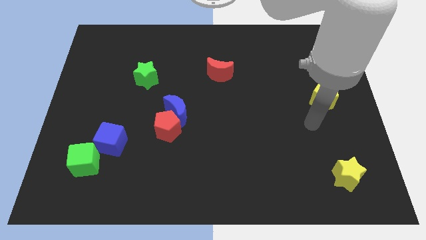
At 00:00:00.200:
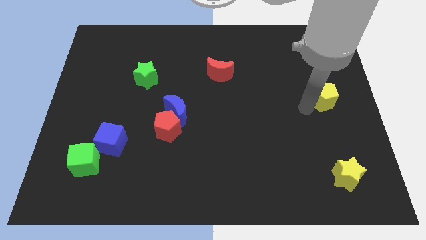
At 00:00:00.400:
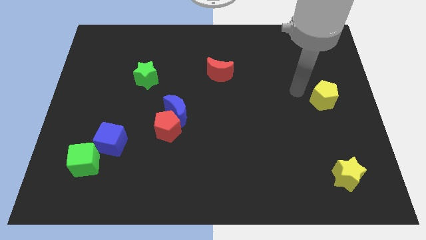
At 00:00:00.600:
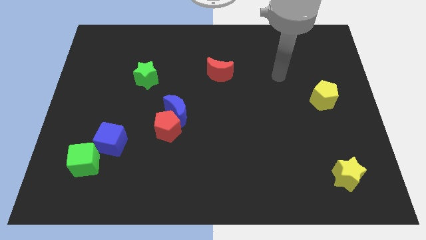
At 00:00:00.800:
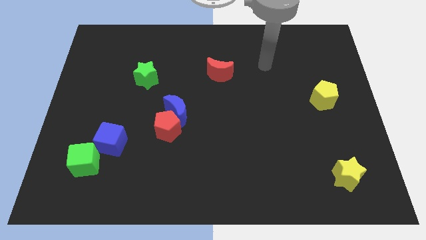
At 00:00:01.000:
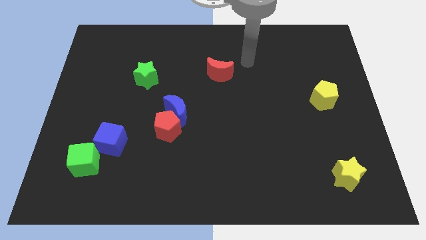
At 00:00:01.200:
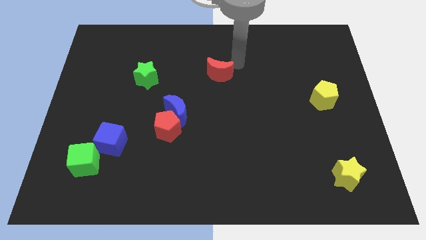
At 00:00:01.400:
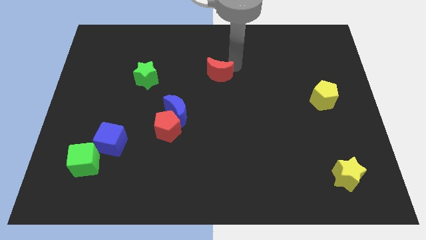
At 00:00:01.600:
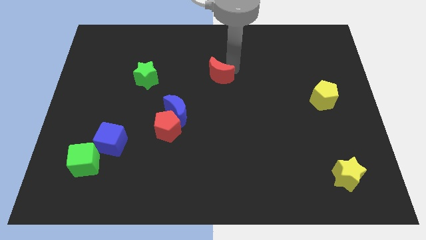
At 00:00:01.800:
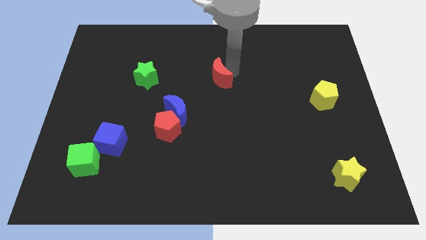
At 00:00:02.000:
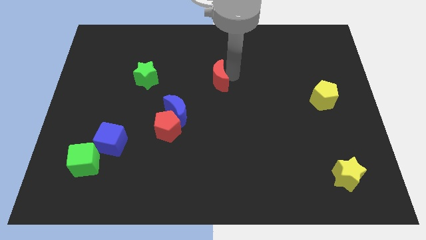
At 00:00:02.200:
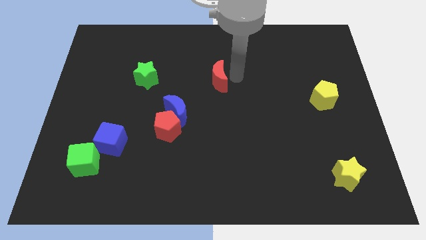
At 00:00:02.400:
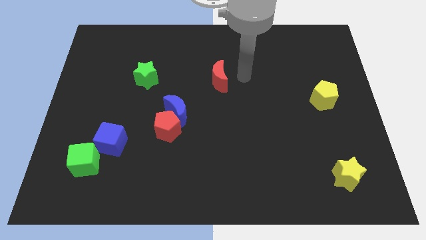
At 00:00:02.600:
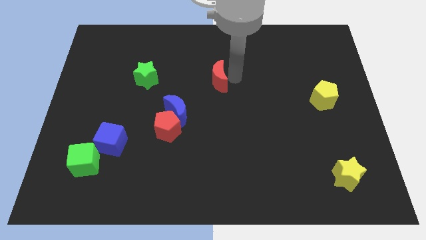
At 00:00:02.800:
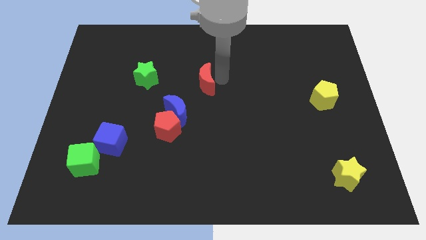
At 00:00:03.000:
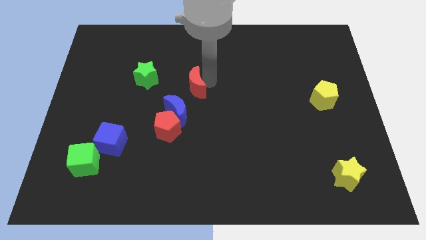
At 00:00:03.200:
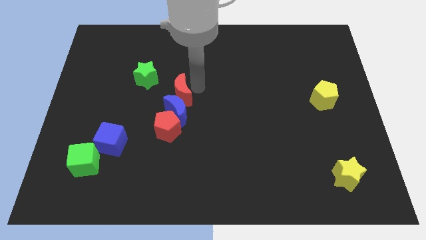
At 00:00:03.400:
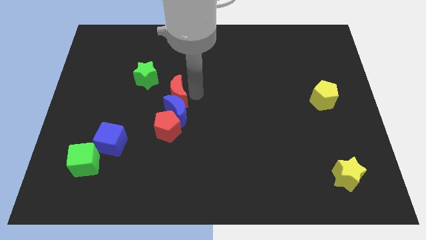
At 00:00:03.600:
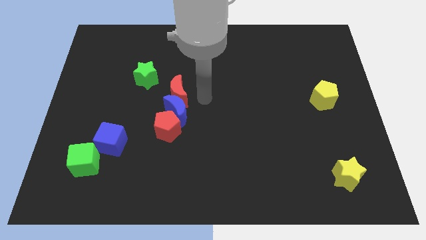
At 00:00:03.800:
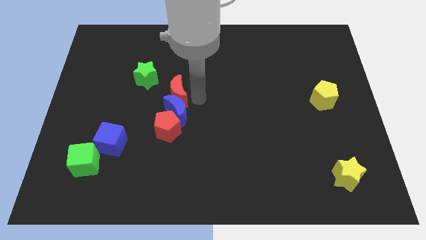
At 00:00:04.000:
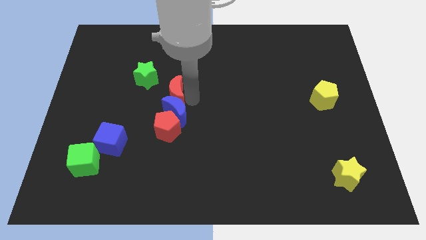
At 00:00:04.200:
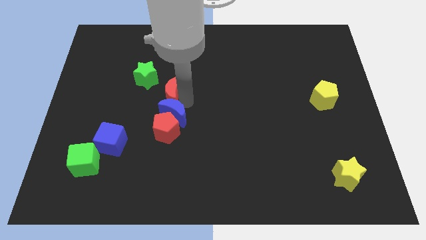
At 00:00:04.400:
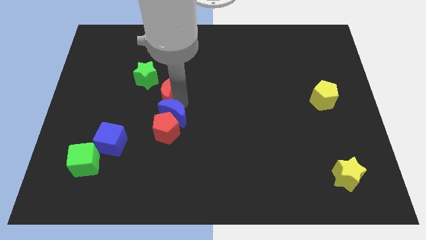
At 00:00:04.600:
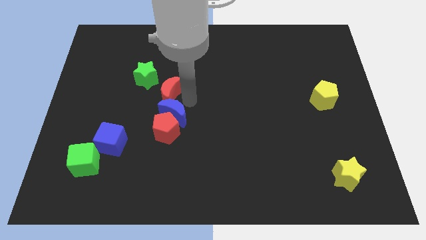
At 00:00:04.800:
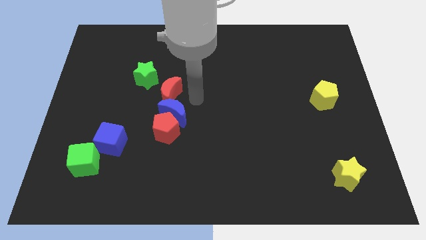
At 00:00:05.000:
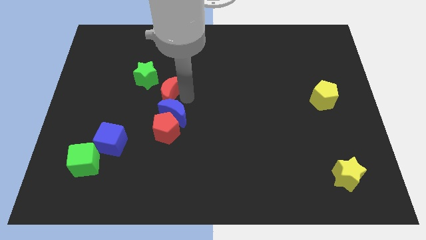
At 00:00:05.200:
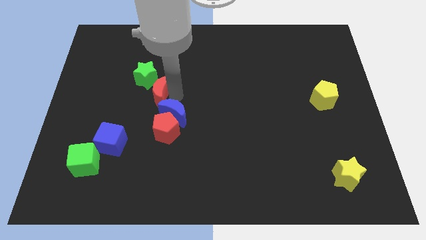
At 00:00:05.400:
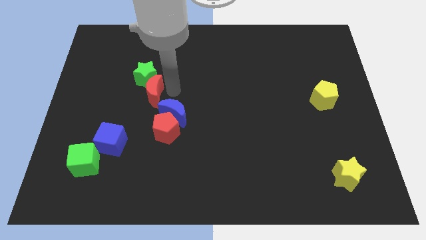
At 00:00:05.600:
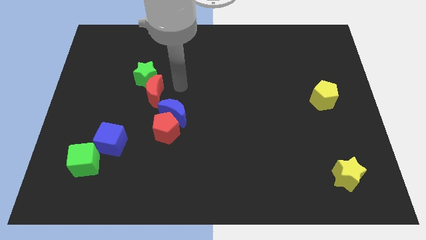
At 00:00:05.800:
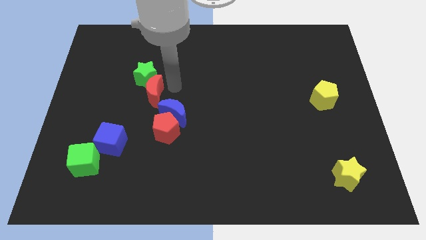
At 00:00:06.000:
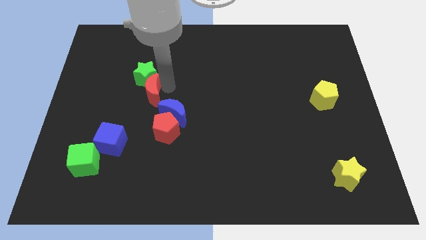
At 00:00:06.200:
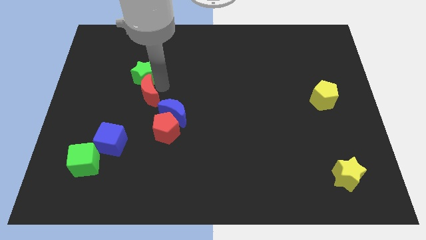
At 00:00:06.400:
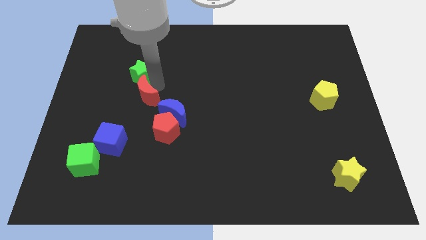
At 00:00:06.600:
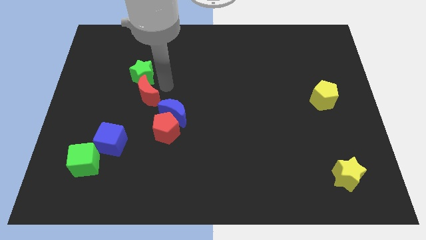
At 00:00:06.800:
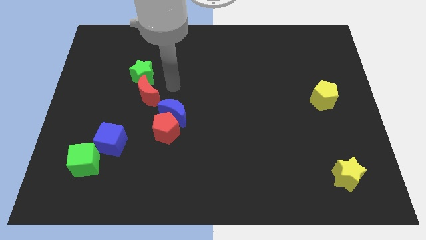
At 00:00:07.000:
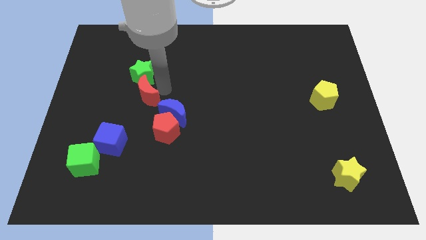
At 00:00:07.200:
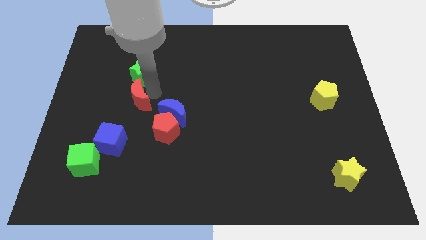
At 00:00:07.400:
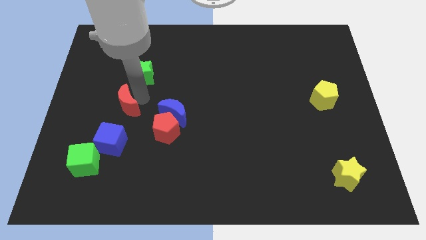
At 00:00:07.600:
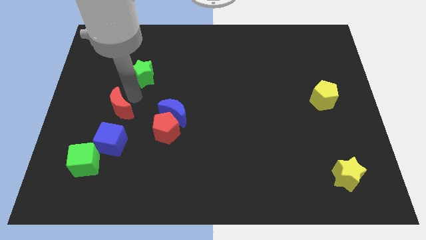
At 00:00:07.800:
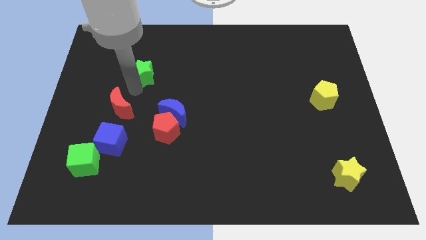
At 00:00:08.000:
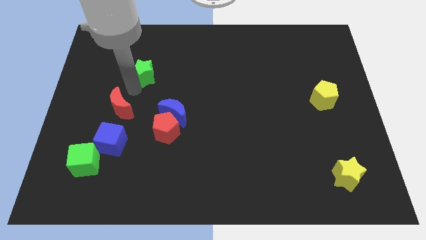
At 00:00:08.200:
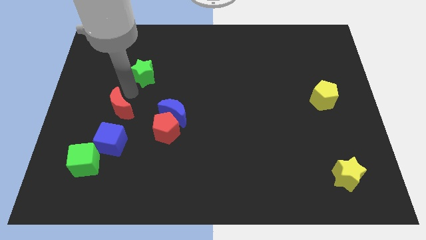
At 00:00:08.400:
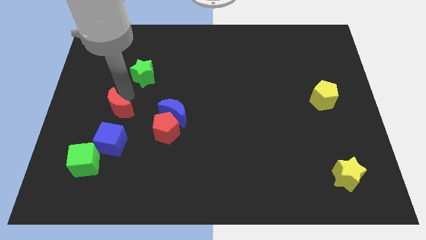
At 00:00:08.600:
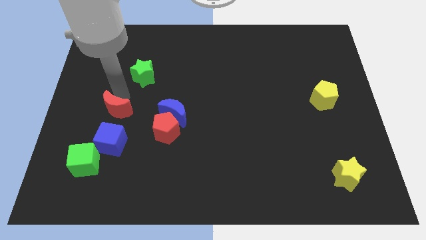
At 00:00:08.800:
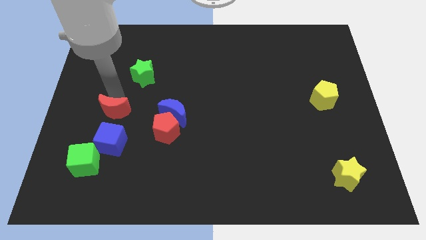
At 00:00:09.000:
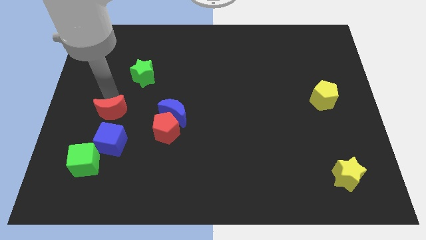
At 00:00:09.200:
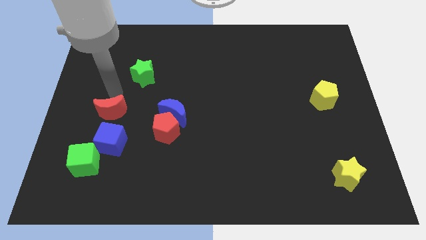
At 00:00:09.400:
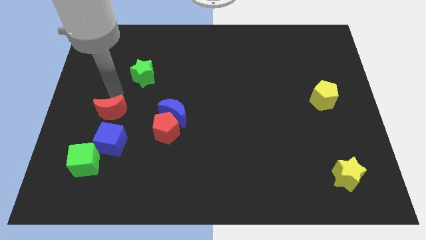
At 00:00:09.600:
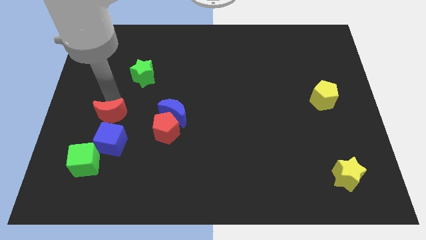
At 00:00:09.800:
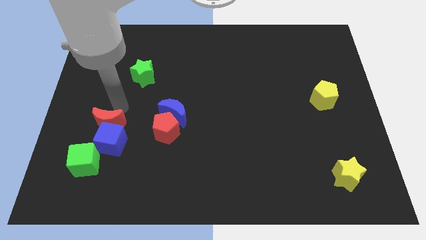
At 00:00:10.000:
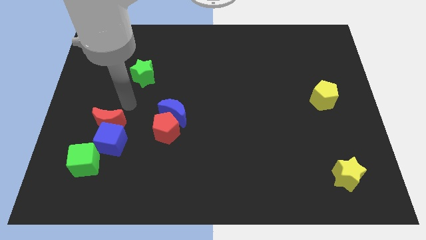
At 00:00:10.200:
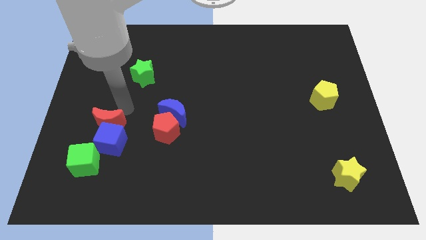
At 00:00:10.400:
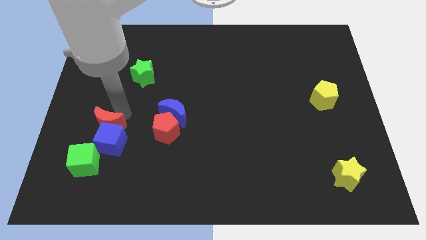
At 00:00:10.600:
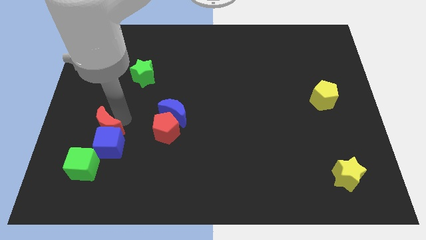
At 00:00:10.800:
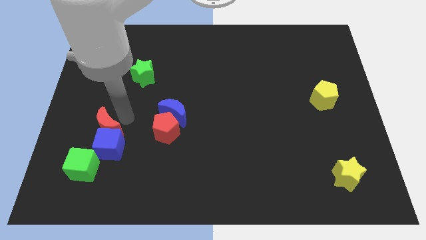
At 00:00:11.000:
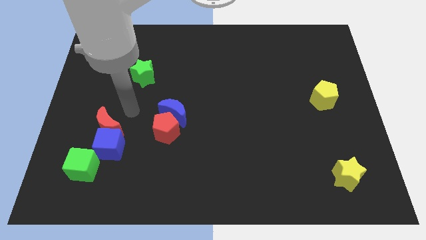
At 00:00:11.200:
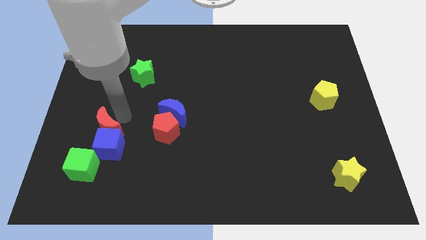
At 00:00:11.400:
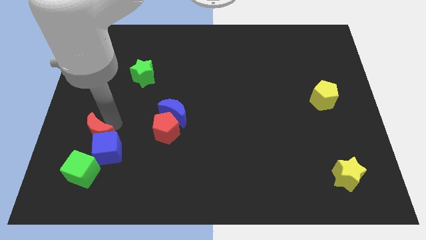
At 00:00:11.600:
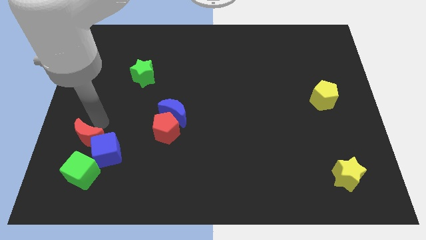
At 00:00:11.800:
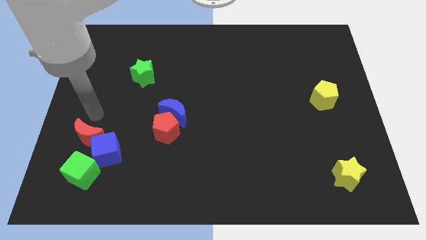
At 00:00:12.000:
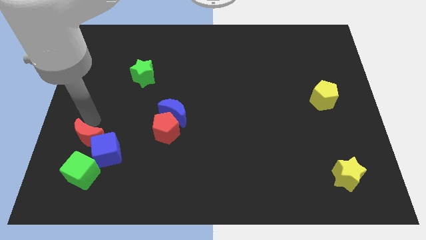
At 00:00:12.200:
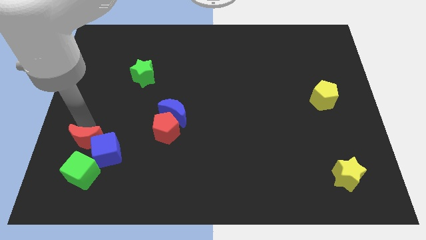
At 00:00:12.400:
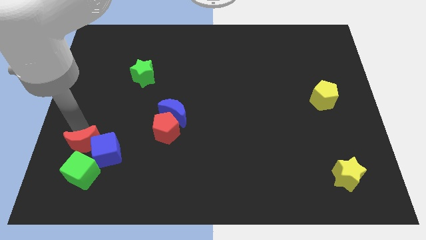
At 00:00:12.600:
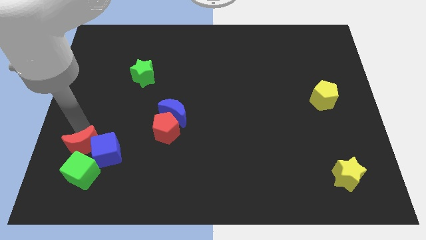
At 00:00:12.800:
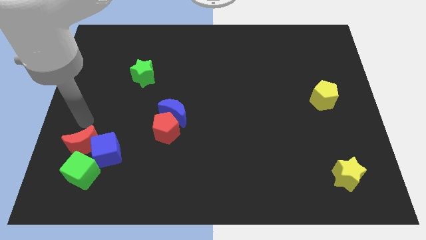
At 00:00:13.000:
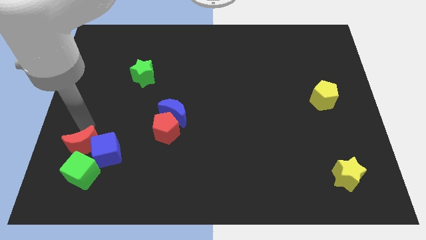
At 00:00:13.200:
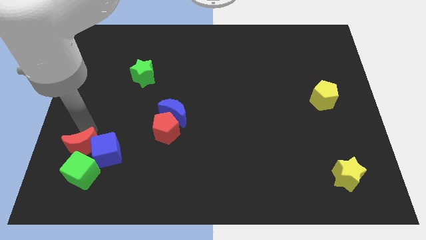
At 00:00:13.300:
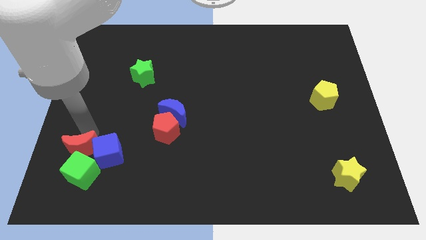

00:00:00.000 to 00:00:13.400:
put the red moon to the green cube

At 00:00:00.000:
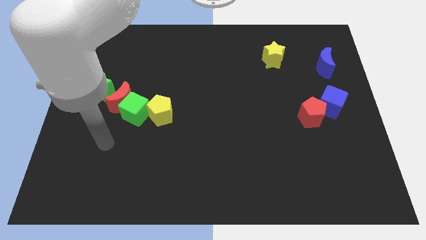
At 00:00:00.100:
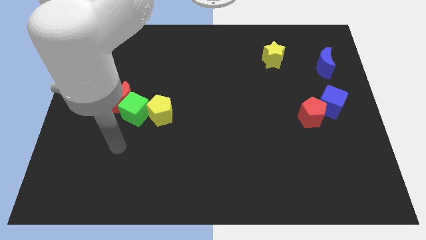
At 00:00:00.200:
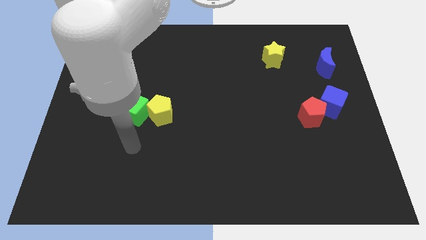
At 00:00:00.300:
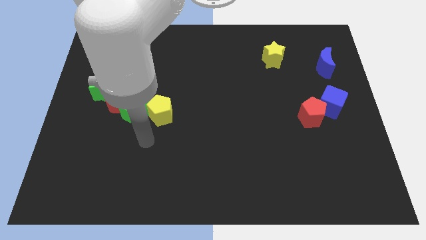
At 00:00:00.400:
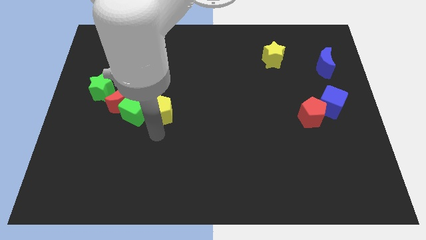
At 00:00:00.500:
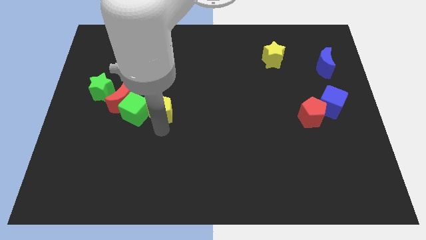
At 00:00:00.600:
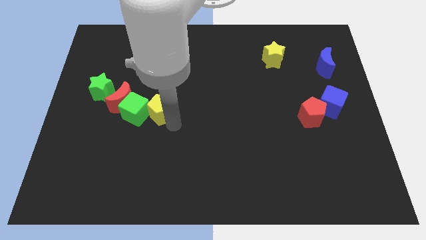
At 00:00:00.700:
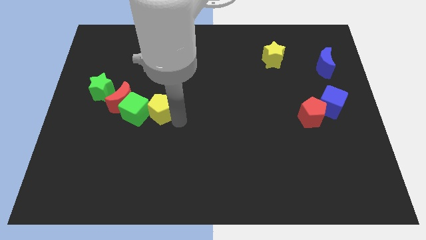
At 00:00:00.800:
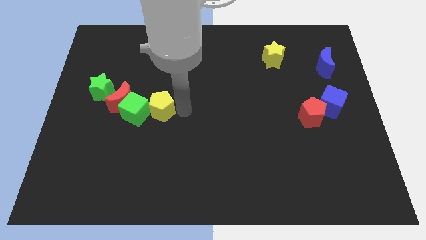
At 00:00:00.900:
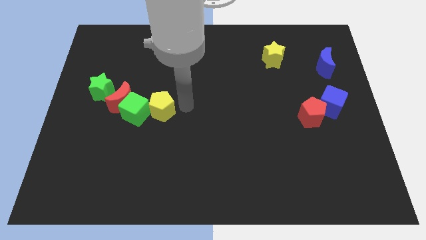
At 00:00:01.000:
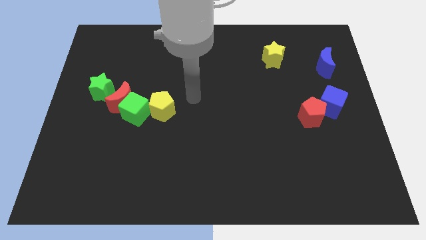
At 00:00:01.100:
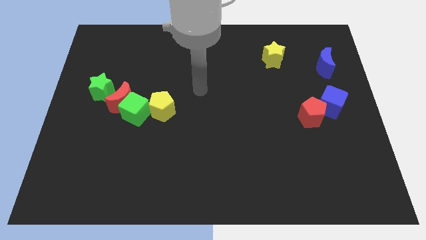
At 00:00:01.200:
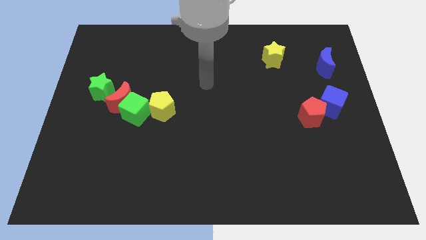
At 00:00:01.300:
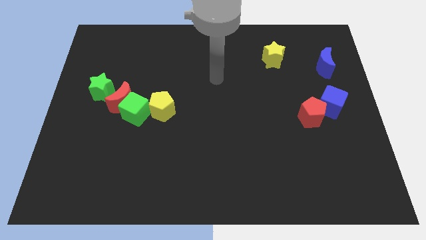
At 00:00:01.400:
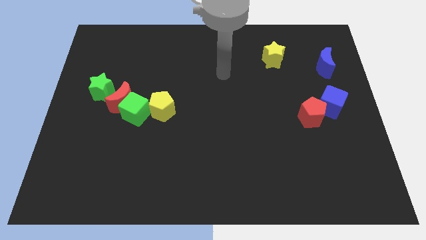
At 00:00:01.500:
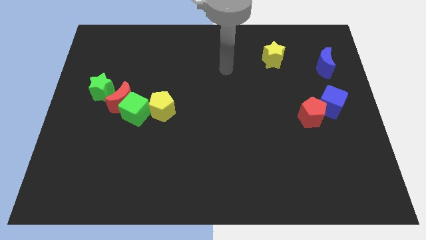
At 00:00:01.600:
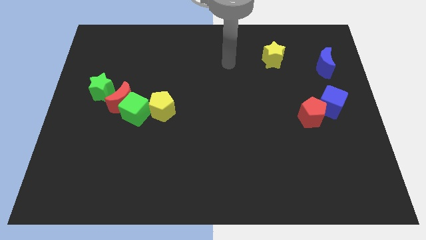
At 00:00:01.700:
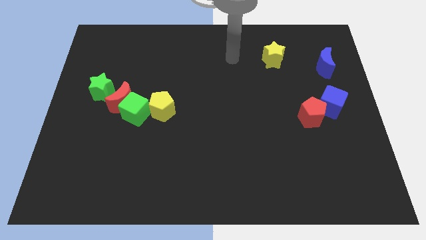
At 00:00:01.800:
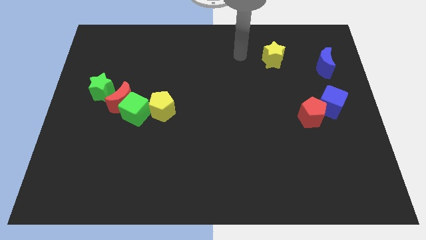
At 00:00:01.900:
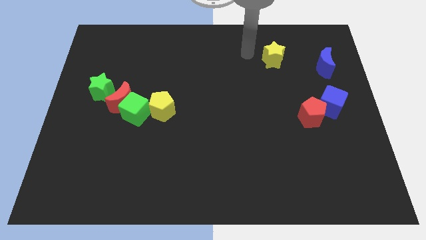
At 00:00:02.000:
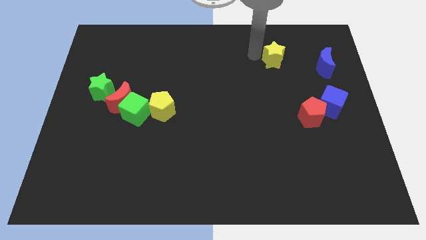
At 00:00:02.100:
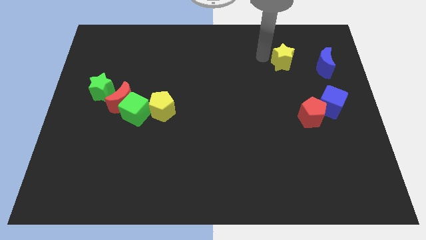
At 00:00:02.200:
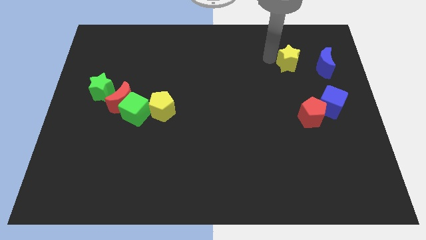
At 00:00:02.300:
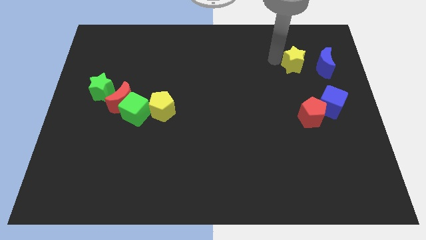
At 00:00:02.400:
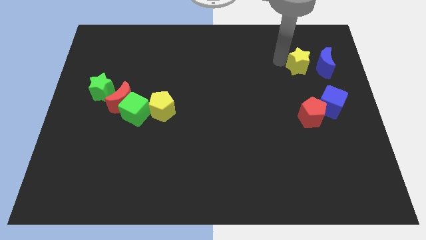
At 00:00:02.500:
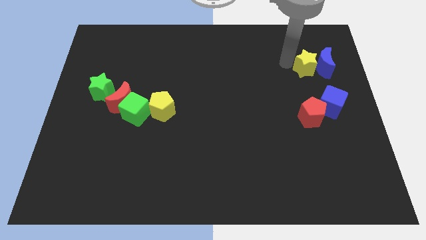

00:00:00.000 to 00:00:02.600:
move the yellow star to the blue moon
